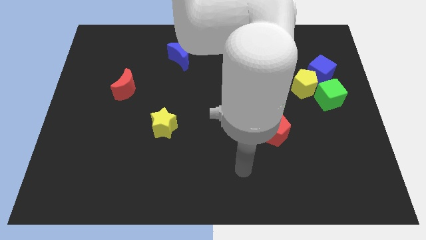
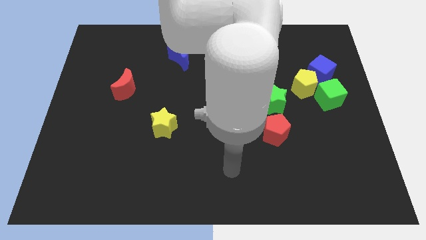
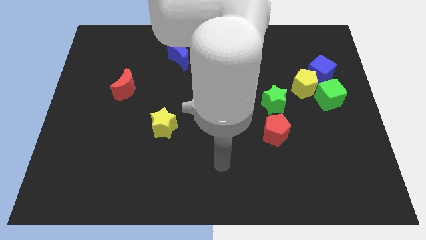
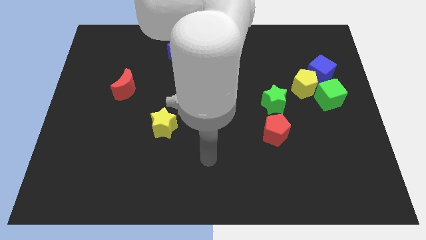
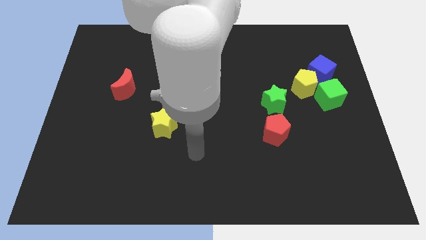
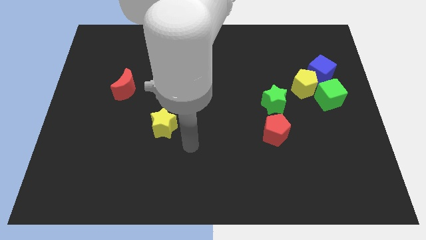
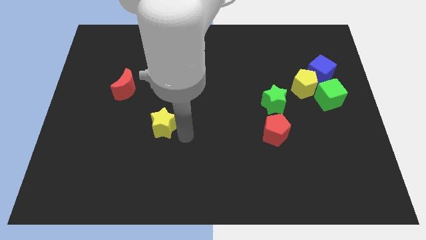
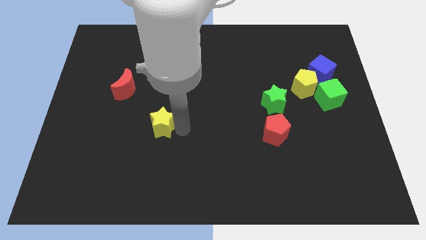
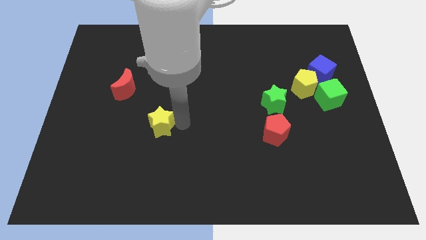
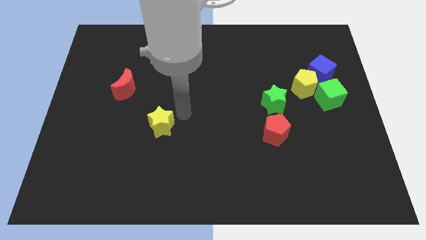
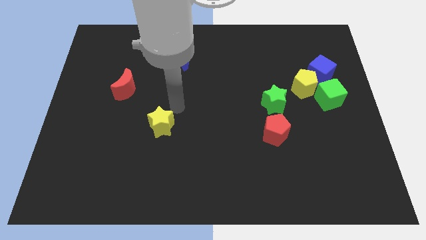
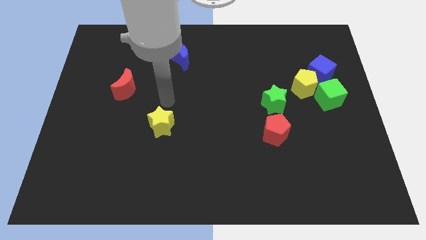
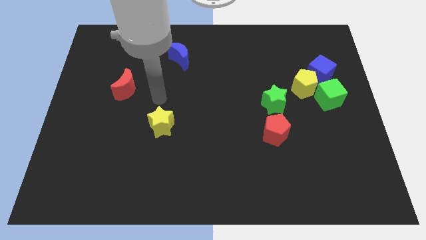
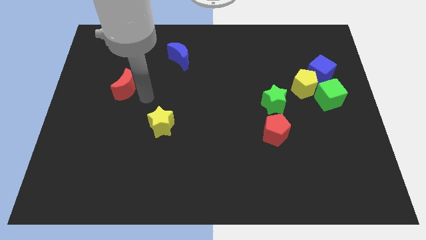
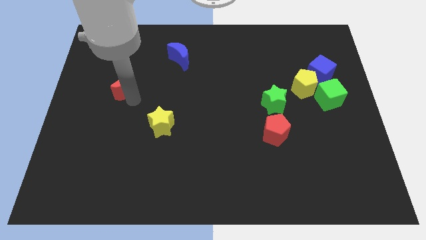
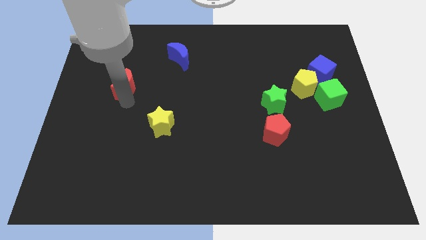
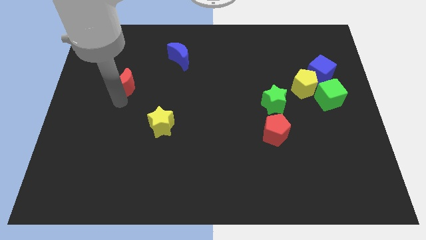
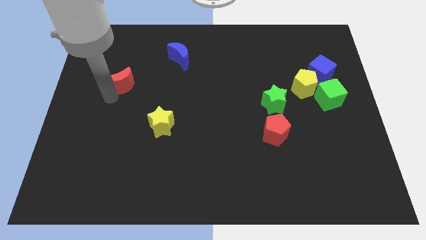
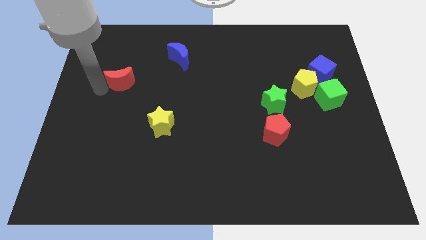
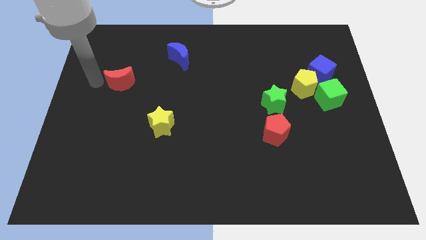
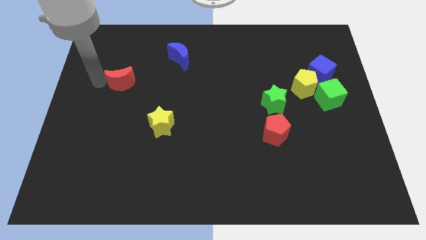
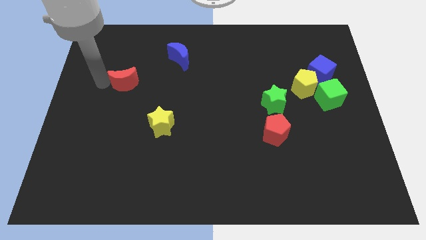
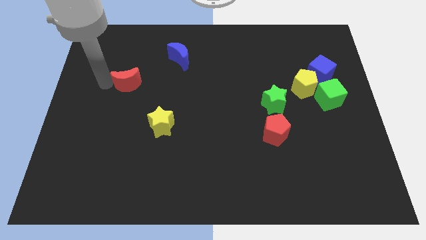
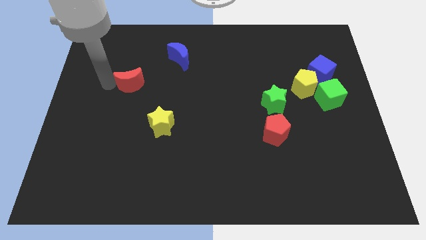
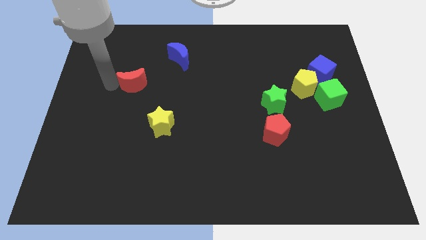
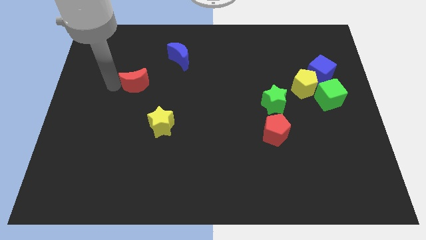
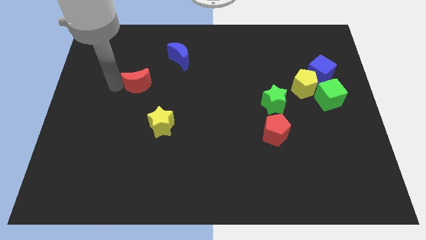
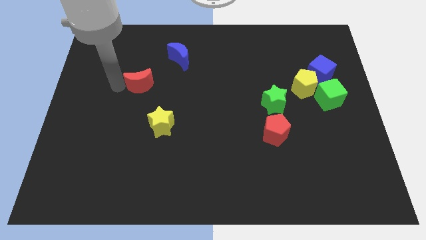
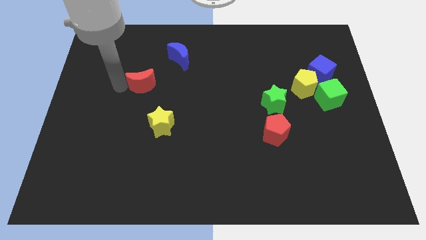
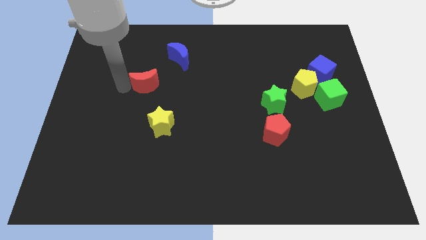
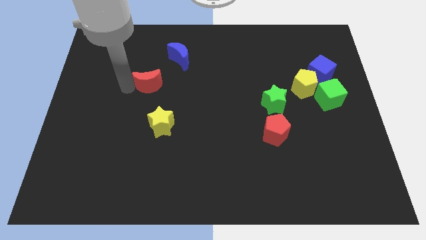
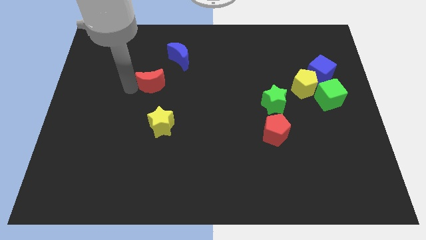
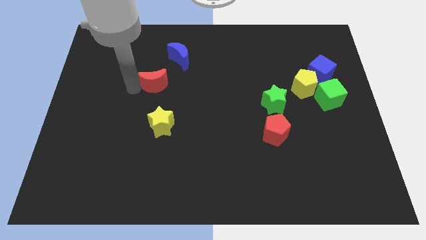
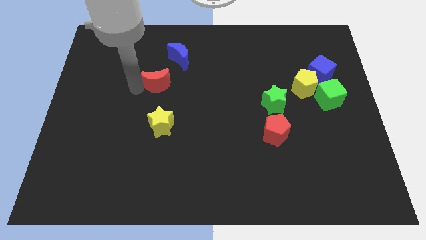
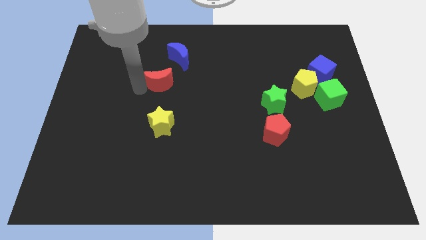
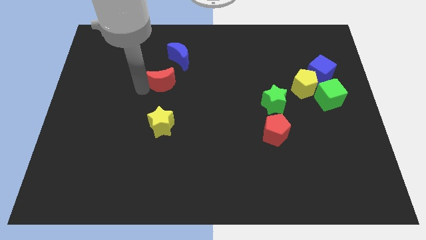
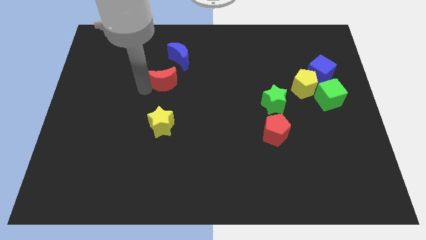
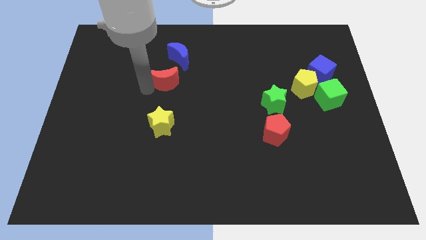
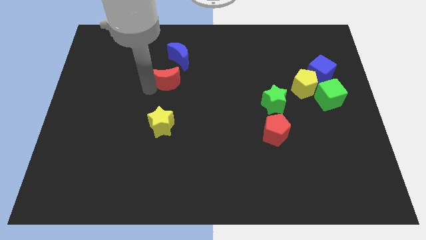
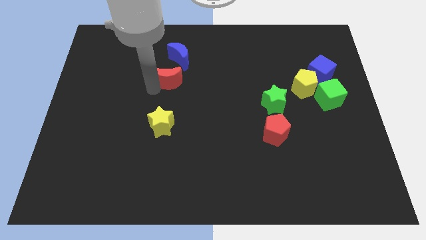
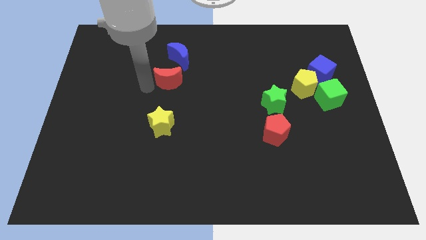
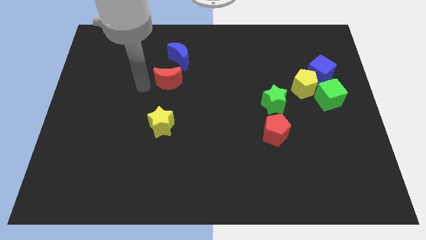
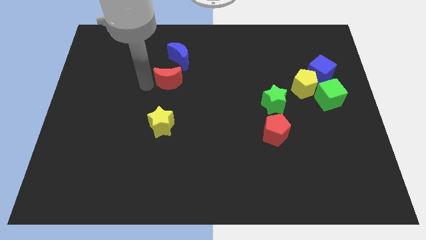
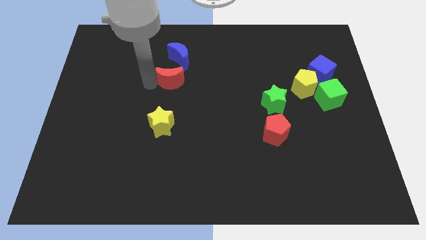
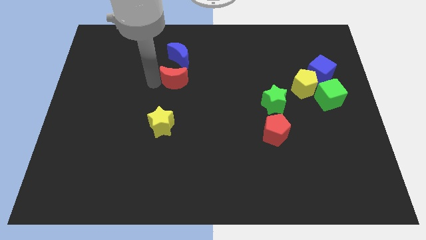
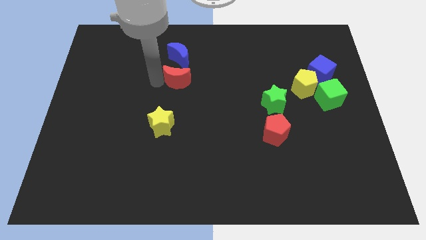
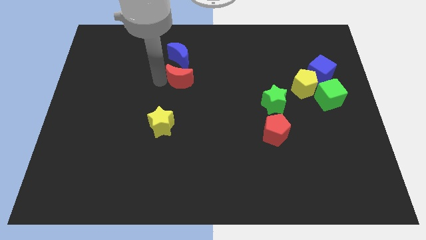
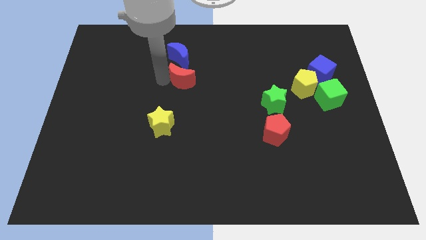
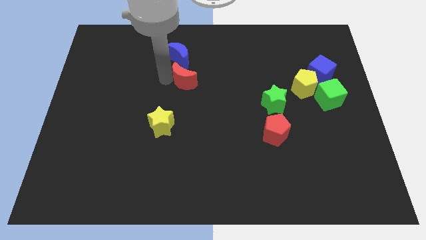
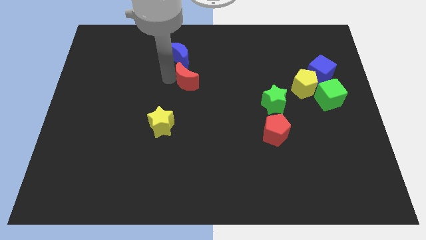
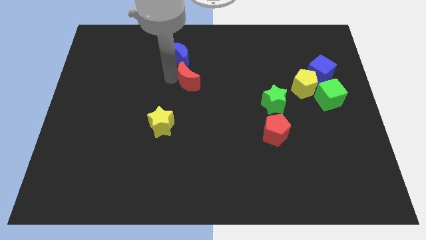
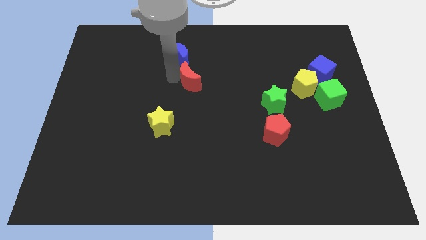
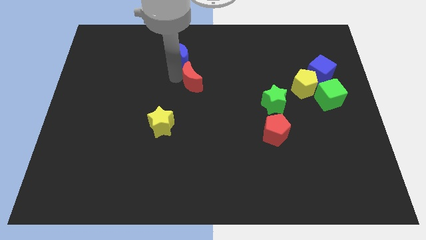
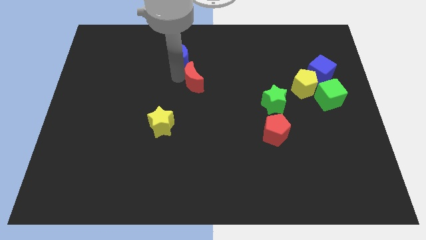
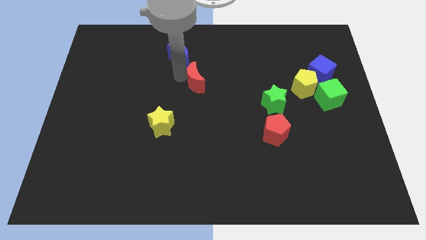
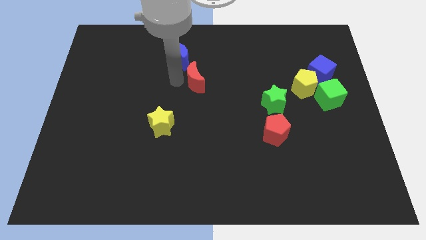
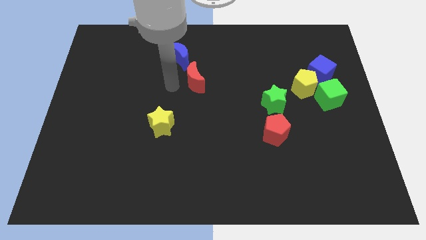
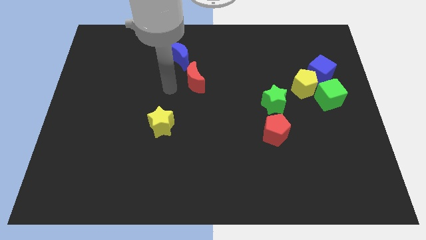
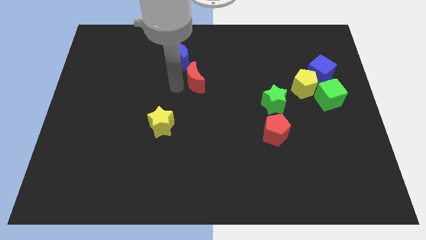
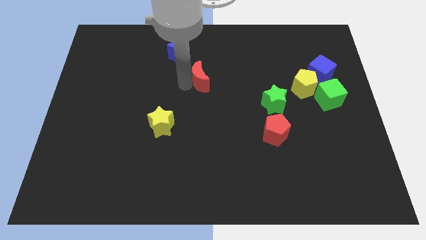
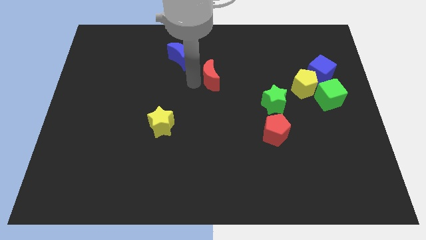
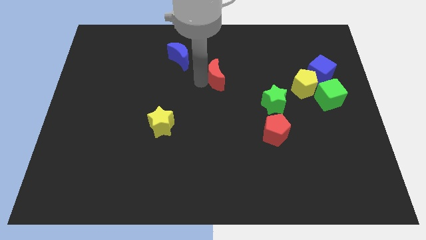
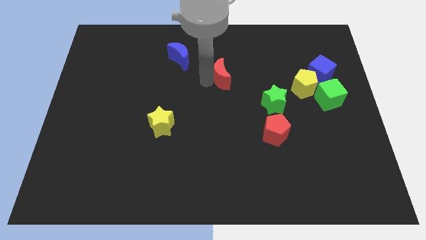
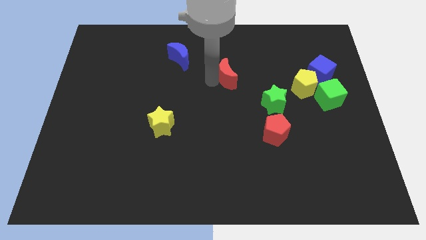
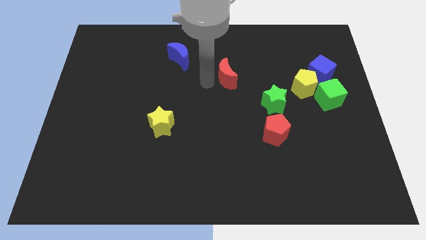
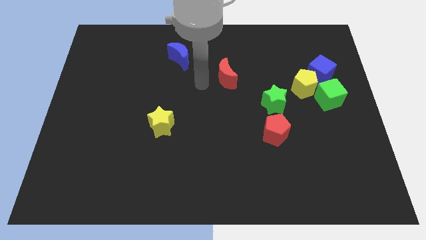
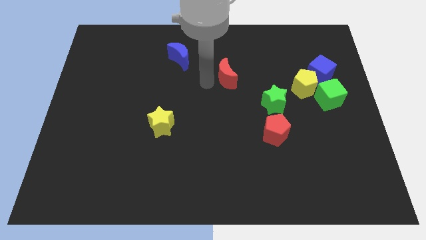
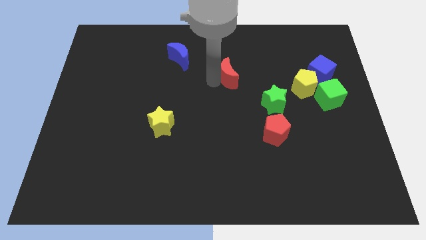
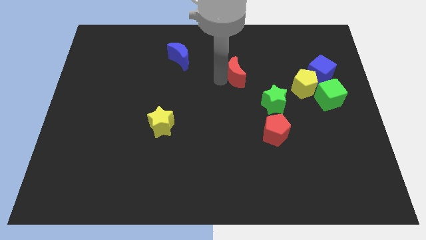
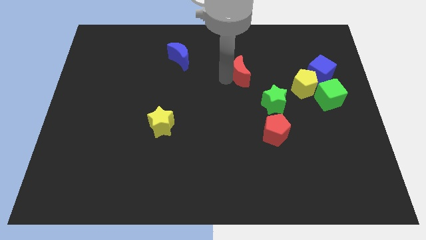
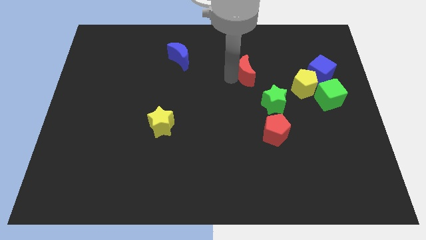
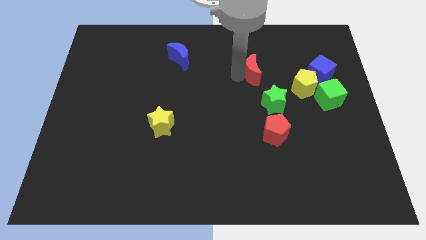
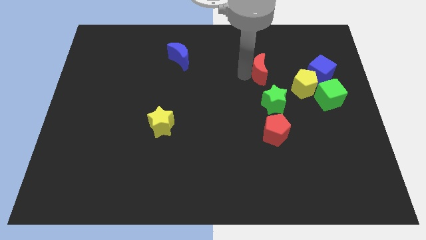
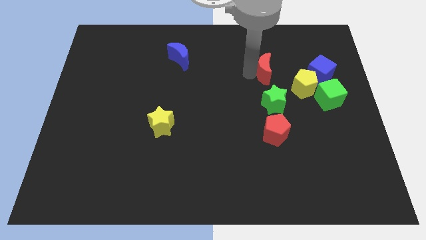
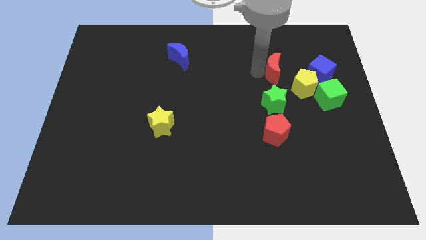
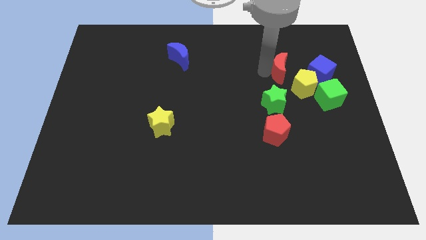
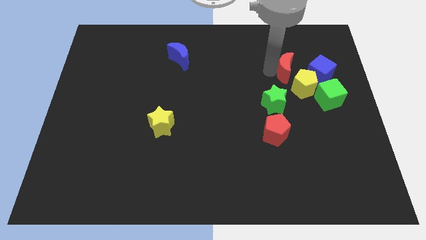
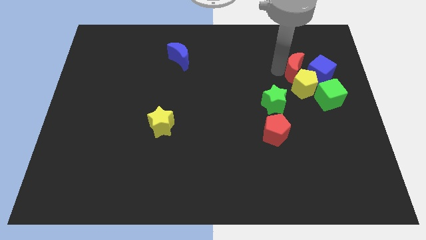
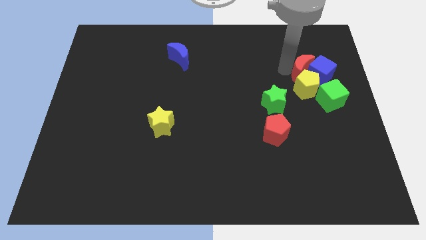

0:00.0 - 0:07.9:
push the red moon next to the blue cube
